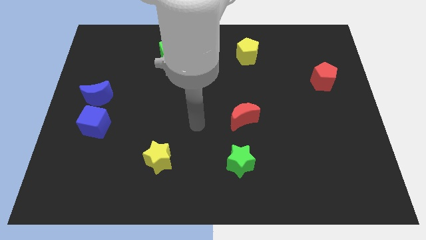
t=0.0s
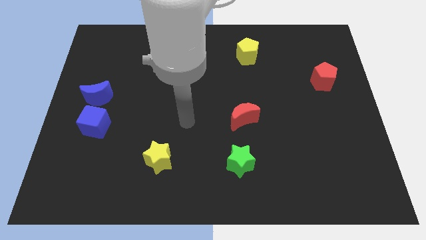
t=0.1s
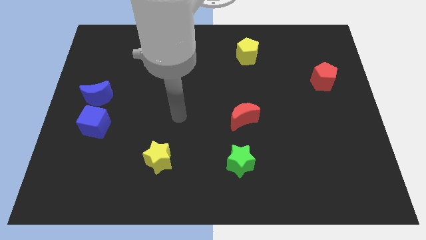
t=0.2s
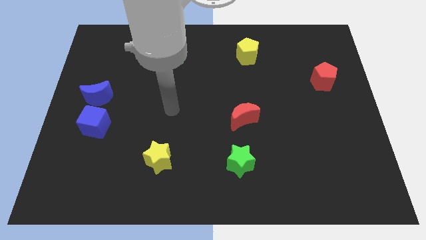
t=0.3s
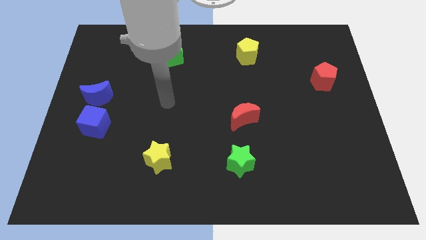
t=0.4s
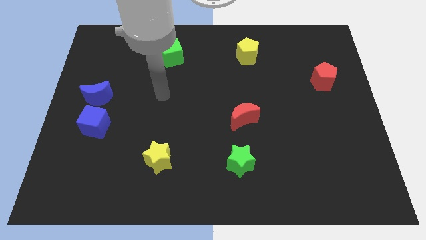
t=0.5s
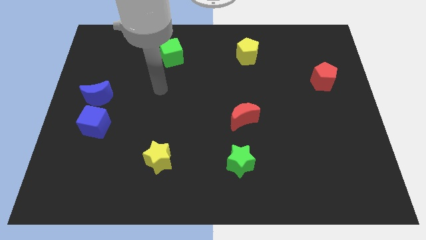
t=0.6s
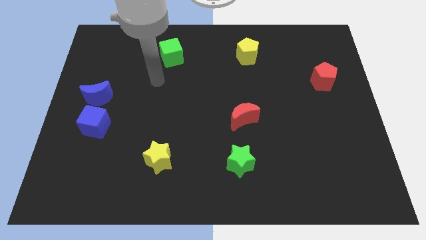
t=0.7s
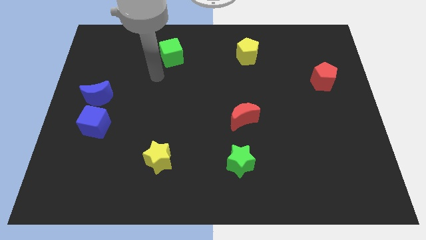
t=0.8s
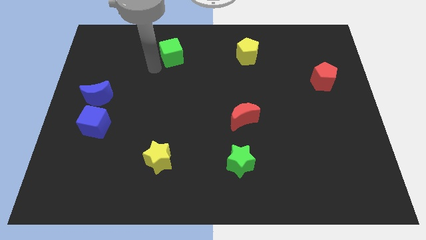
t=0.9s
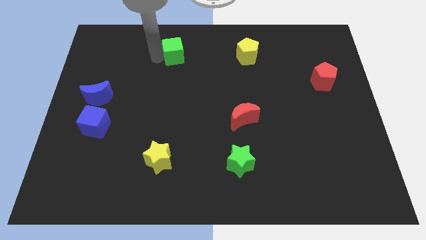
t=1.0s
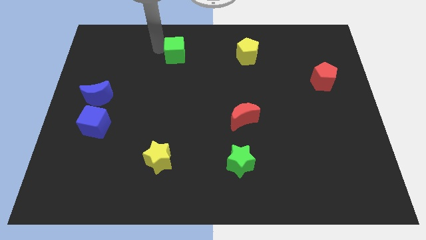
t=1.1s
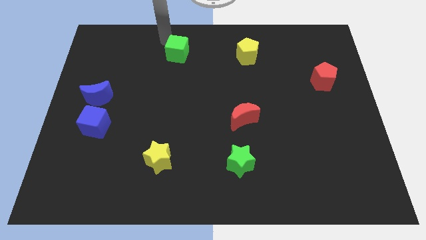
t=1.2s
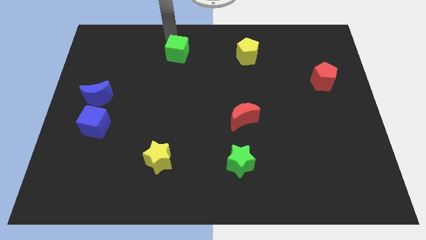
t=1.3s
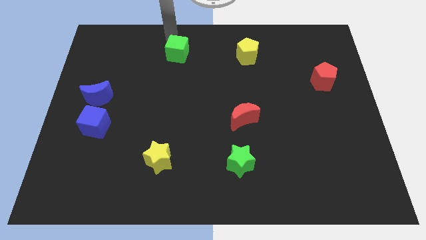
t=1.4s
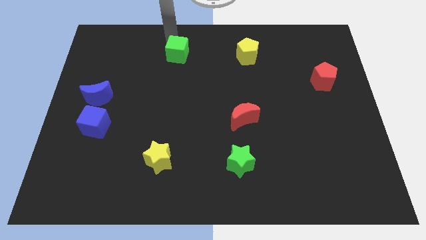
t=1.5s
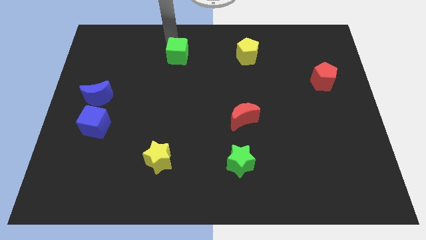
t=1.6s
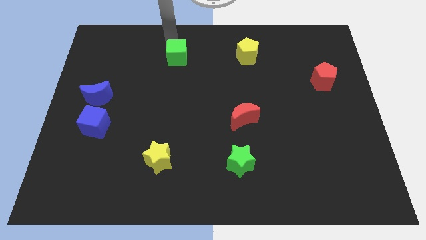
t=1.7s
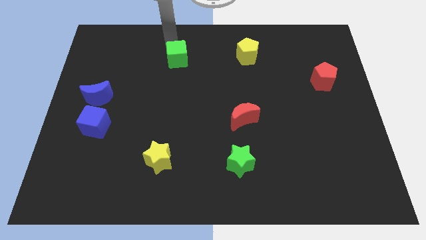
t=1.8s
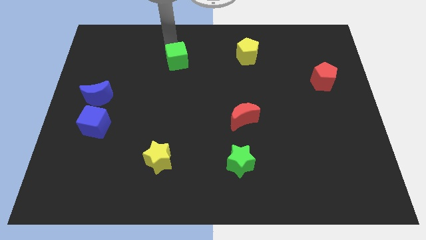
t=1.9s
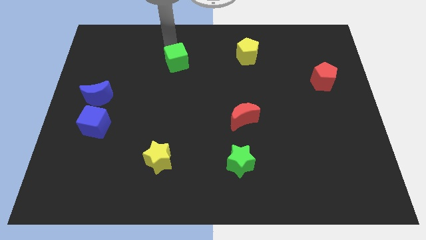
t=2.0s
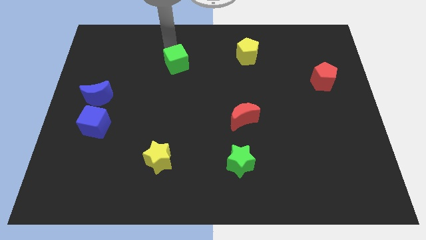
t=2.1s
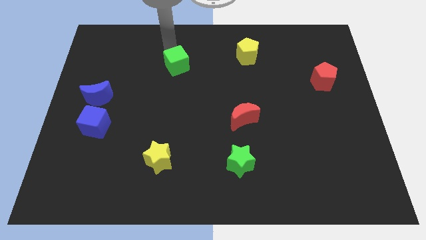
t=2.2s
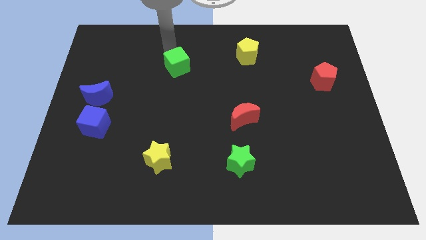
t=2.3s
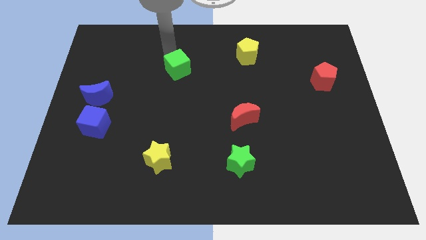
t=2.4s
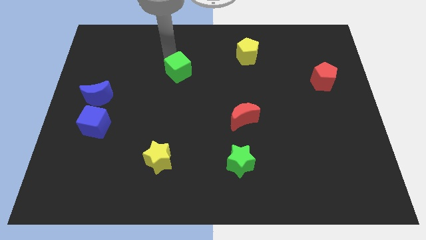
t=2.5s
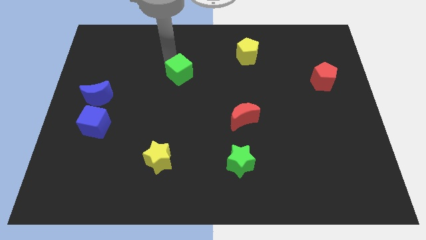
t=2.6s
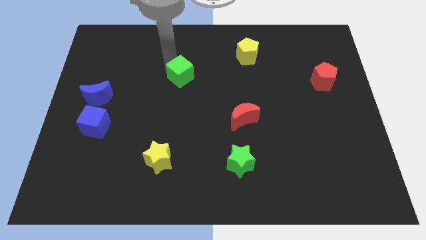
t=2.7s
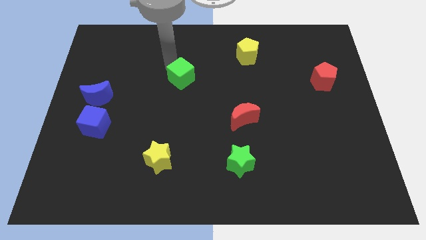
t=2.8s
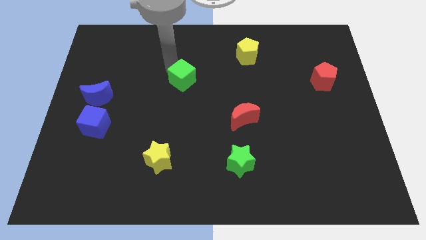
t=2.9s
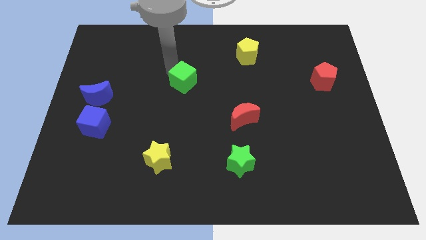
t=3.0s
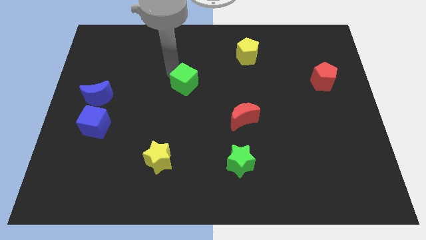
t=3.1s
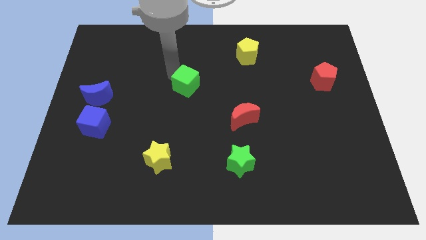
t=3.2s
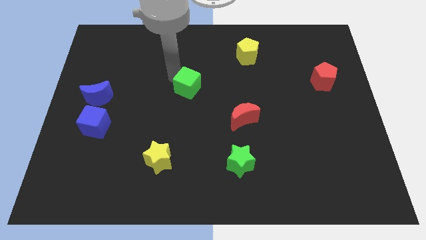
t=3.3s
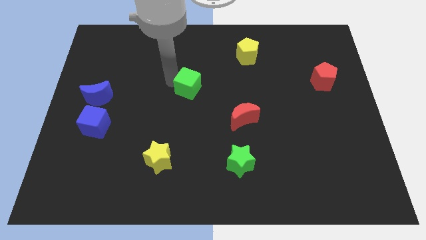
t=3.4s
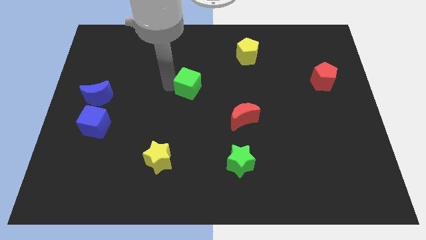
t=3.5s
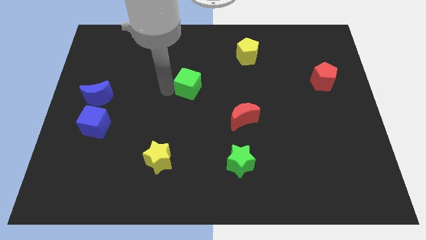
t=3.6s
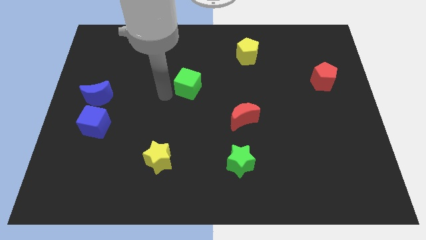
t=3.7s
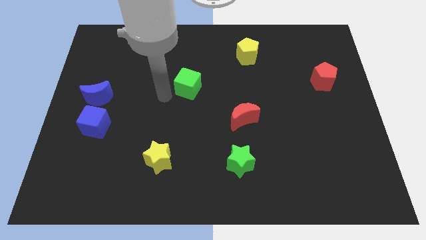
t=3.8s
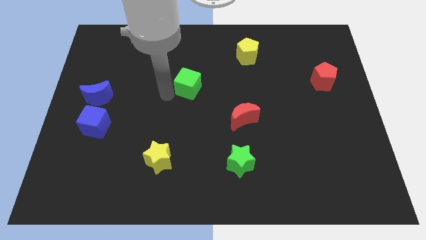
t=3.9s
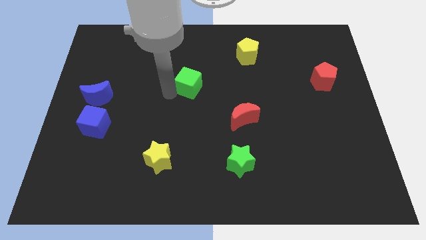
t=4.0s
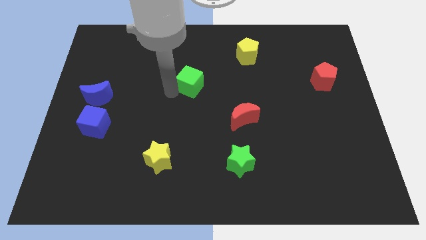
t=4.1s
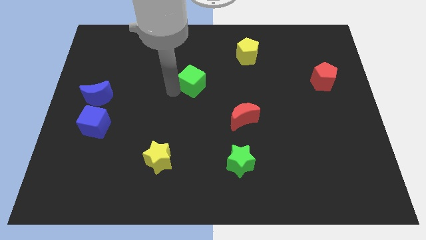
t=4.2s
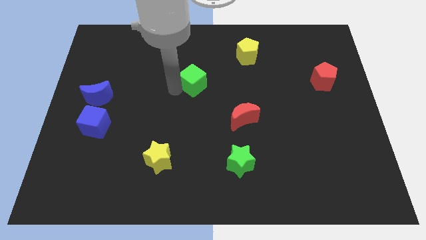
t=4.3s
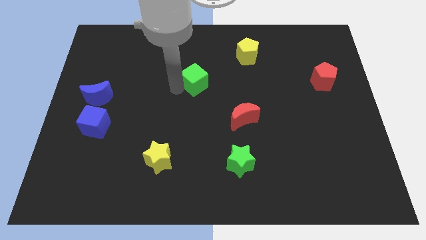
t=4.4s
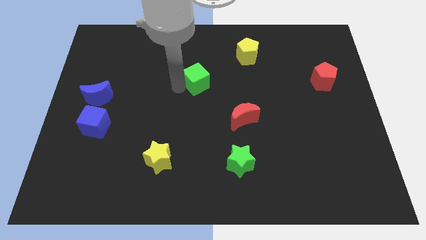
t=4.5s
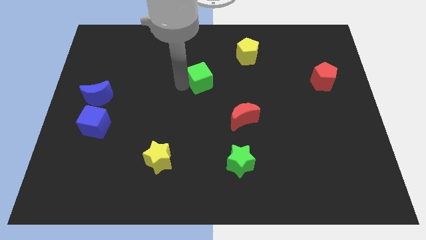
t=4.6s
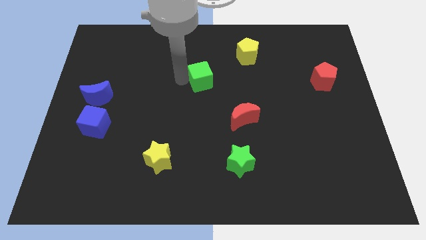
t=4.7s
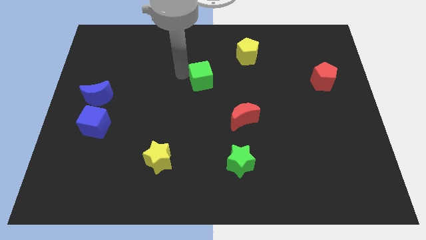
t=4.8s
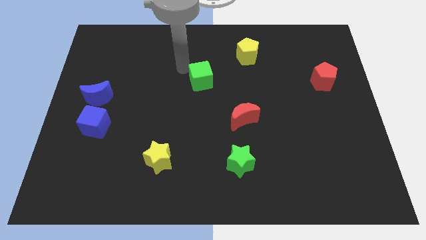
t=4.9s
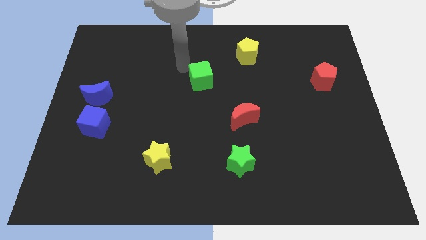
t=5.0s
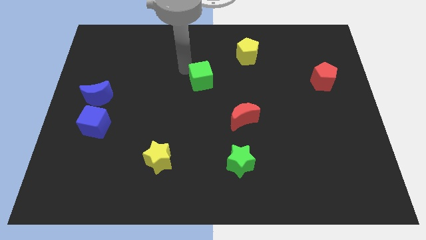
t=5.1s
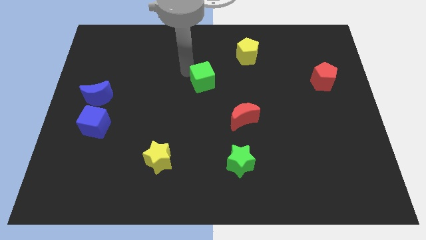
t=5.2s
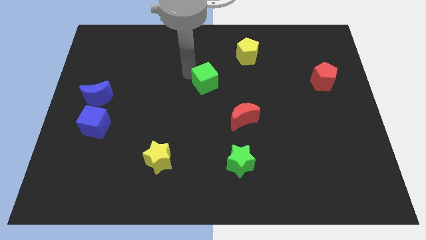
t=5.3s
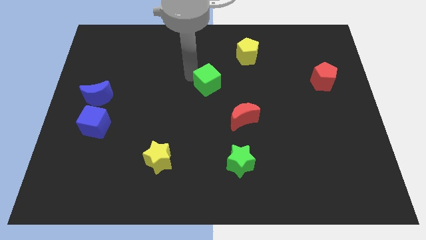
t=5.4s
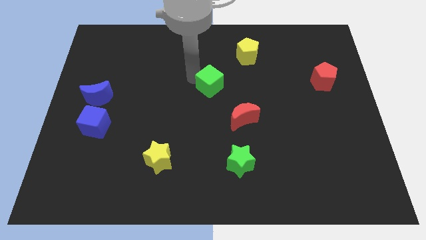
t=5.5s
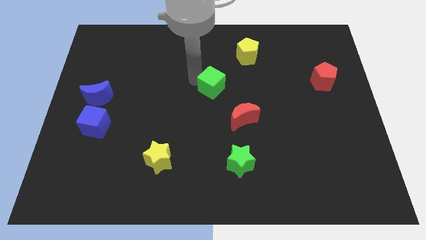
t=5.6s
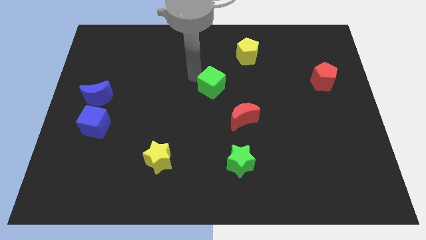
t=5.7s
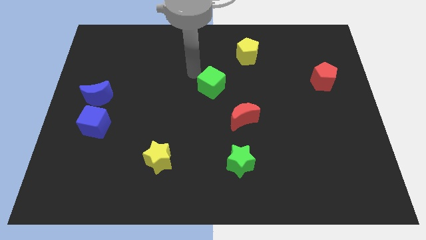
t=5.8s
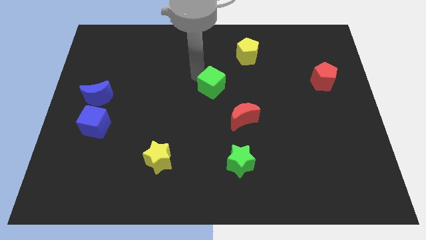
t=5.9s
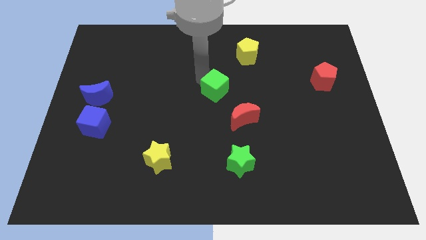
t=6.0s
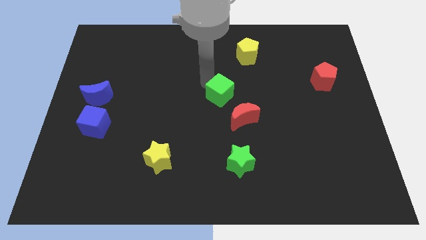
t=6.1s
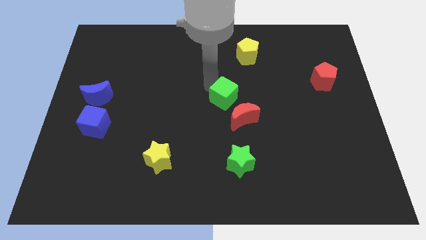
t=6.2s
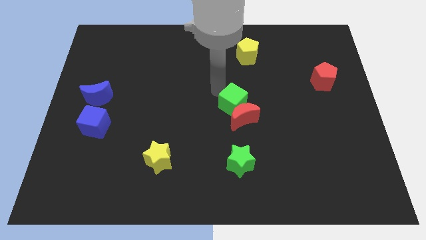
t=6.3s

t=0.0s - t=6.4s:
put the green cube to the top of the green star

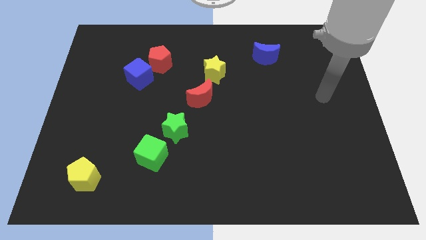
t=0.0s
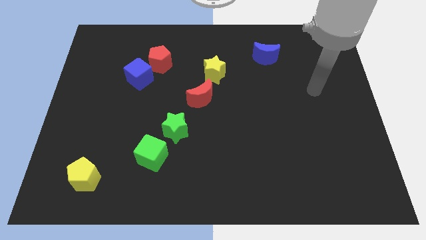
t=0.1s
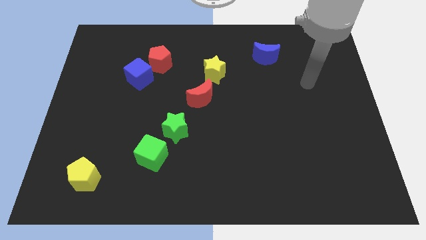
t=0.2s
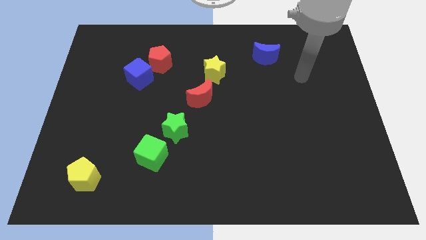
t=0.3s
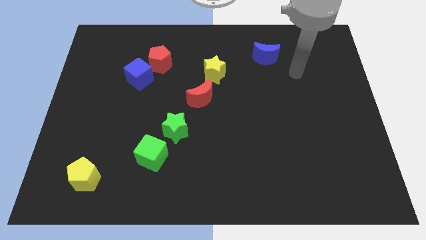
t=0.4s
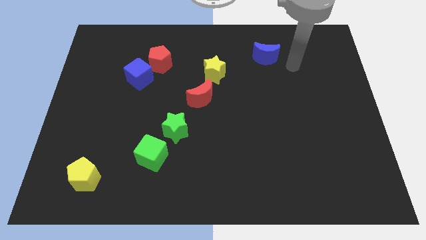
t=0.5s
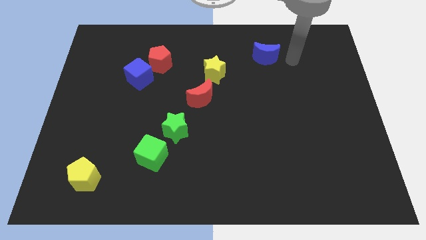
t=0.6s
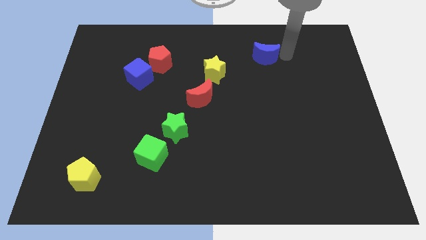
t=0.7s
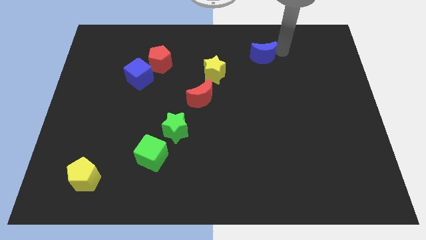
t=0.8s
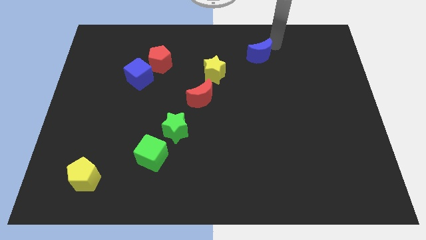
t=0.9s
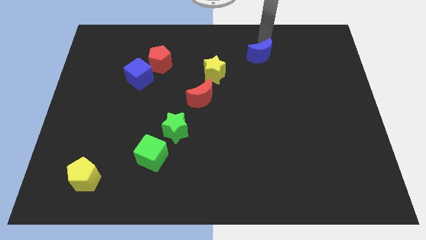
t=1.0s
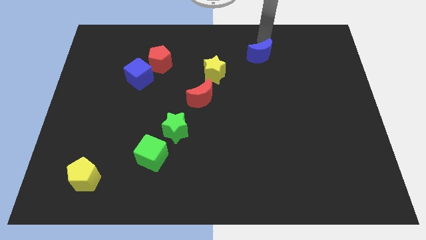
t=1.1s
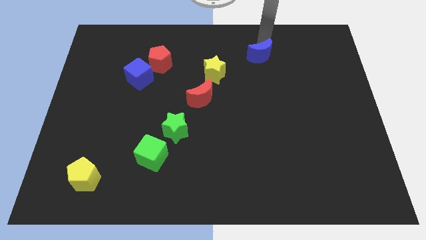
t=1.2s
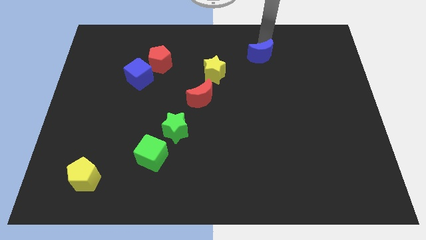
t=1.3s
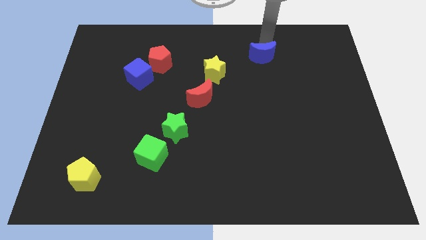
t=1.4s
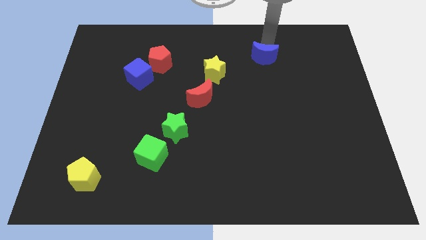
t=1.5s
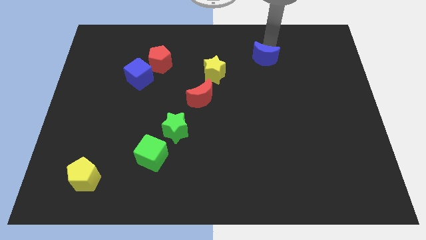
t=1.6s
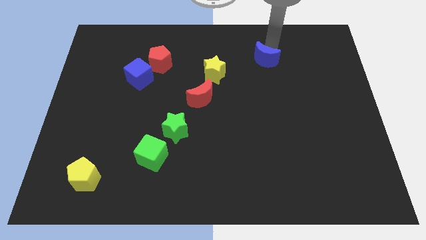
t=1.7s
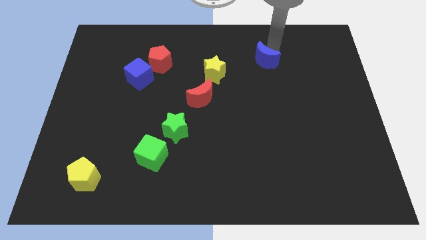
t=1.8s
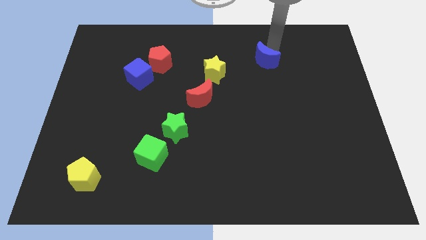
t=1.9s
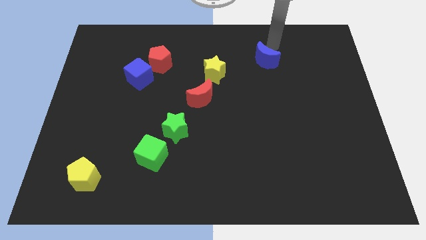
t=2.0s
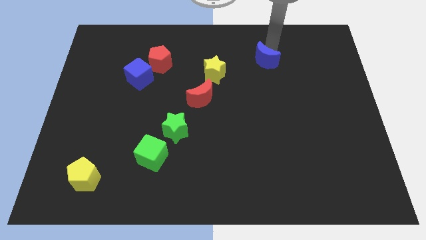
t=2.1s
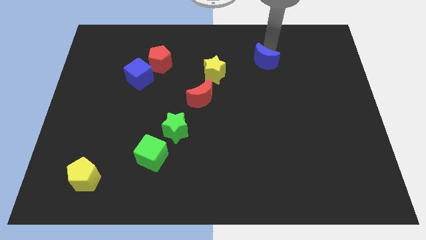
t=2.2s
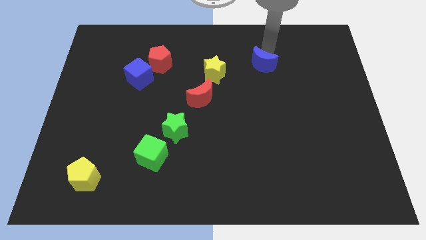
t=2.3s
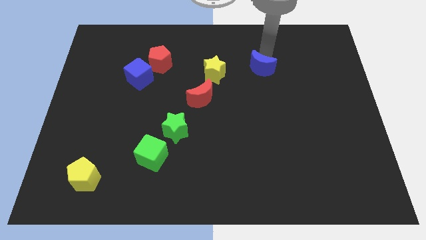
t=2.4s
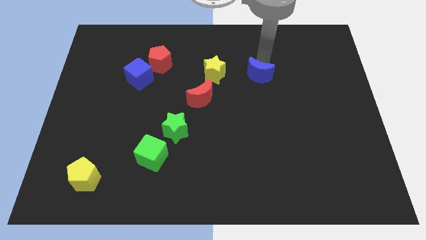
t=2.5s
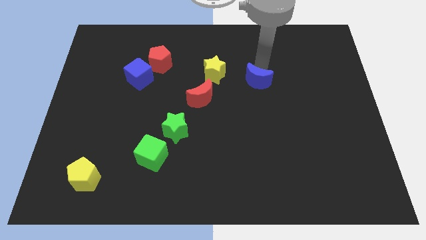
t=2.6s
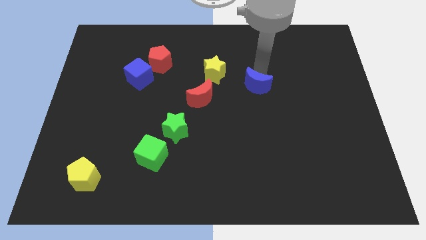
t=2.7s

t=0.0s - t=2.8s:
put the blue moon to the right side of the red moon
